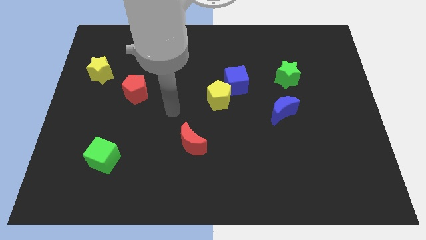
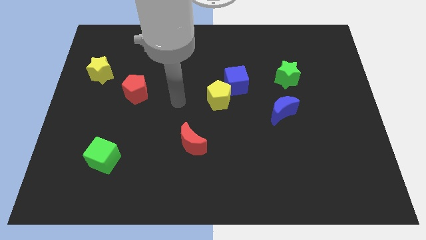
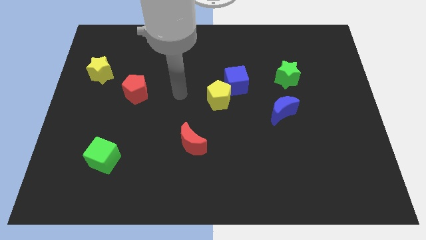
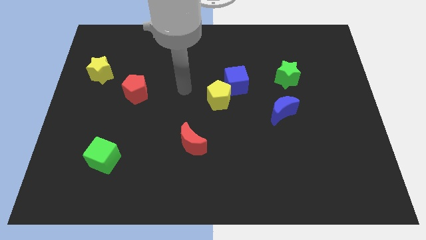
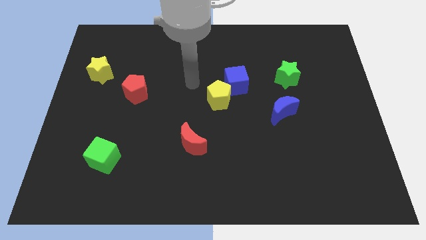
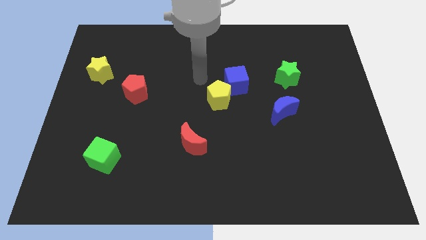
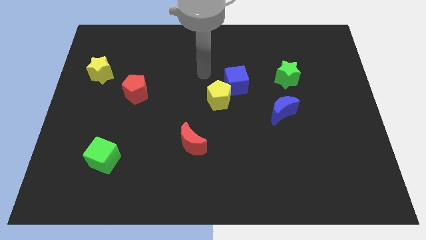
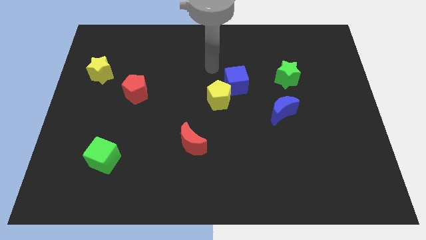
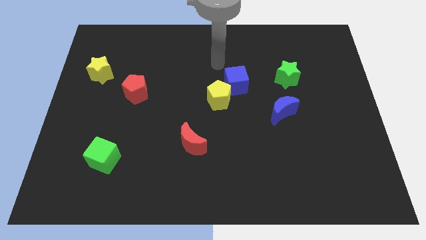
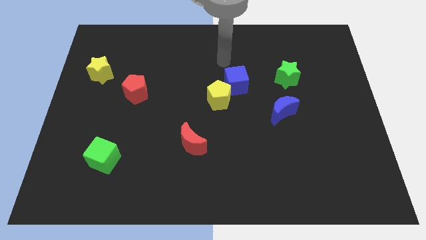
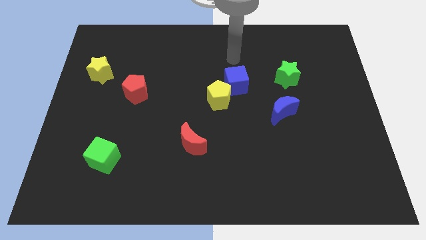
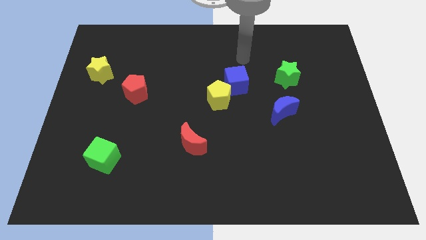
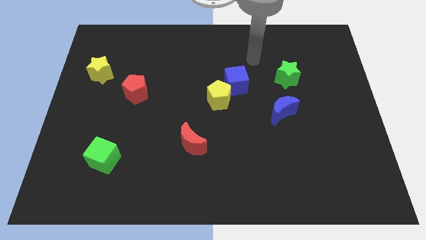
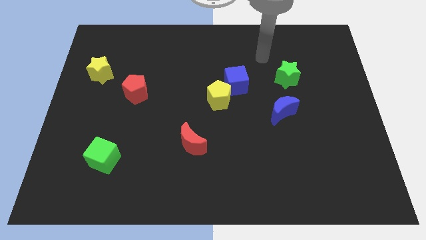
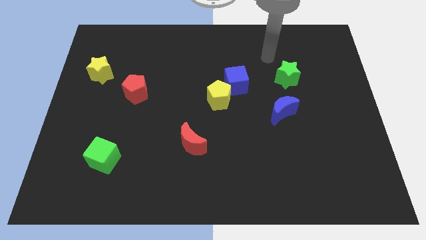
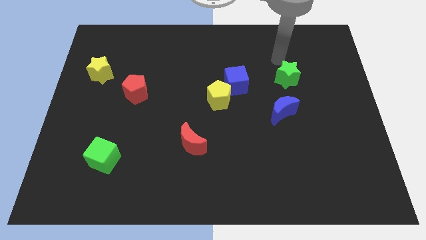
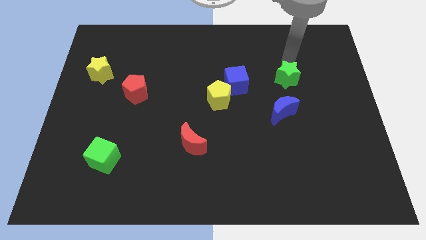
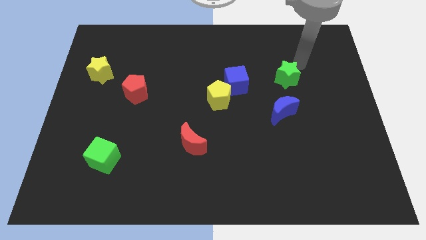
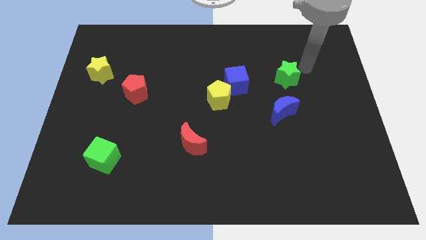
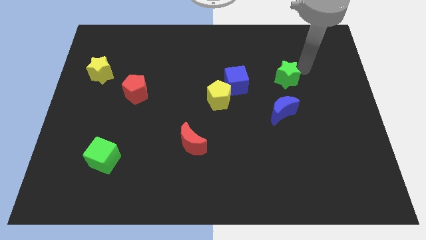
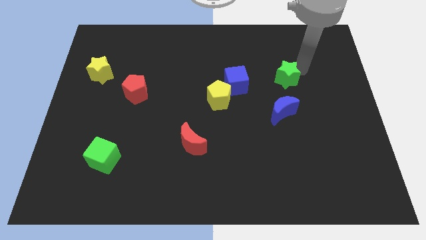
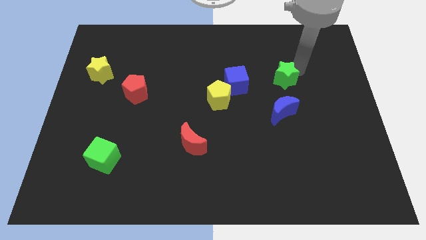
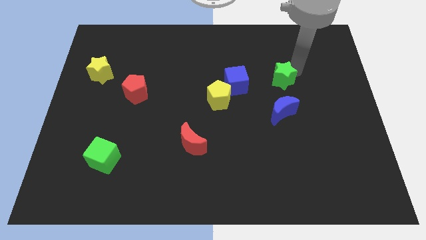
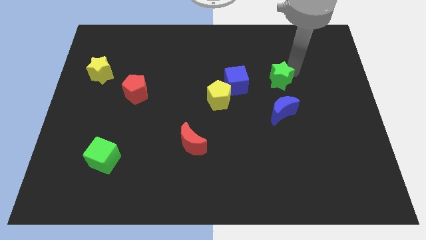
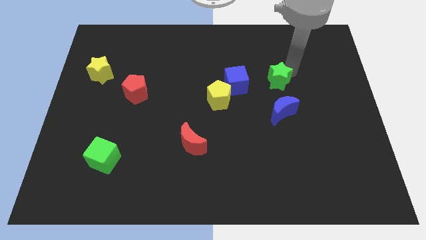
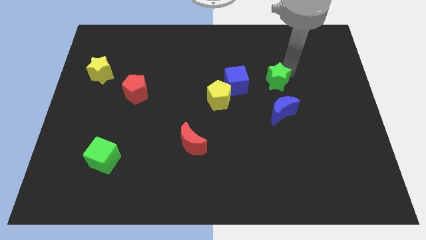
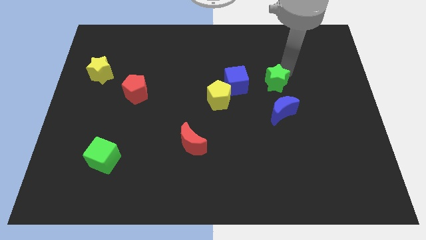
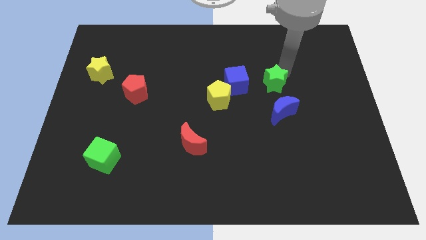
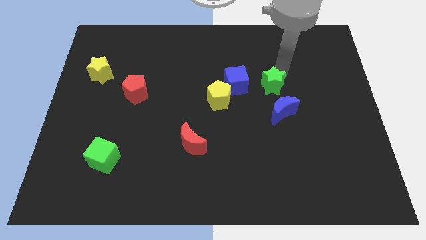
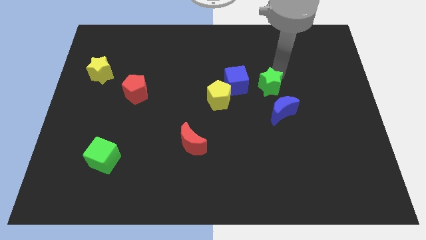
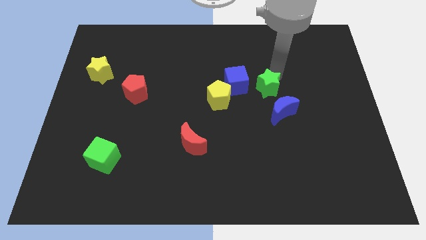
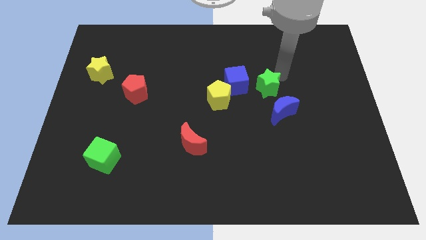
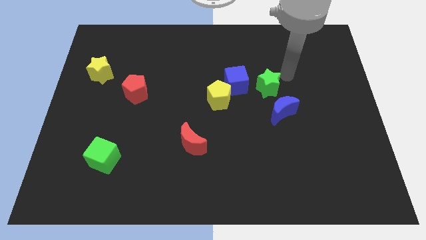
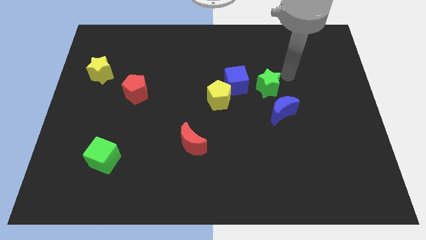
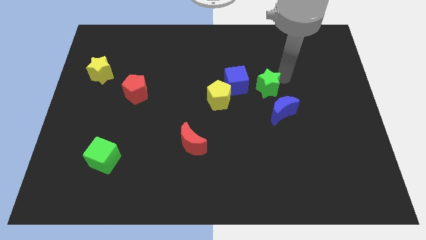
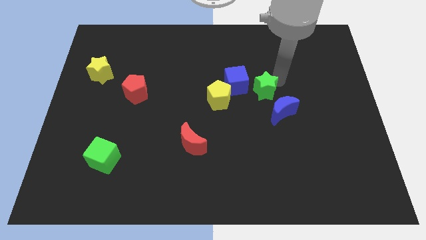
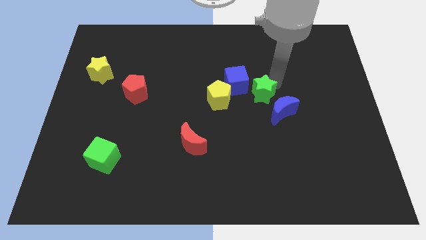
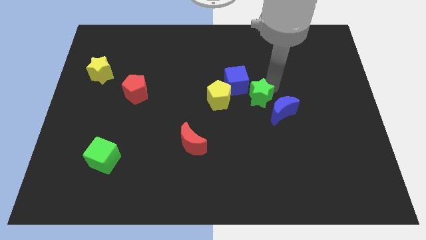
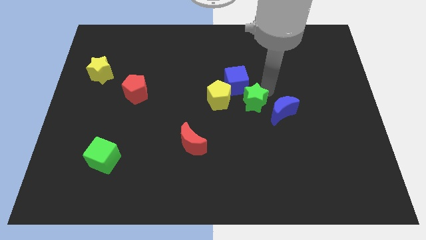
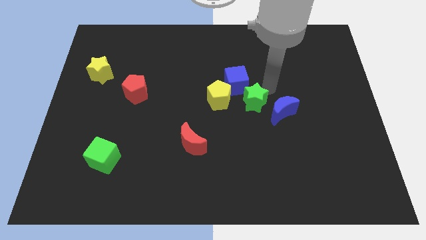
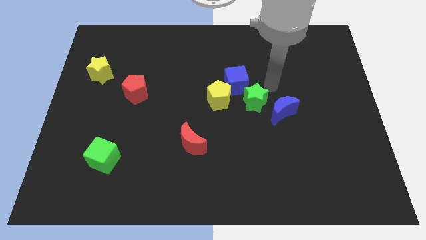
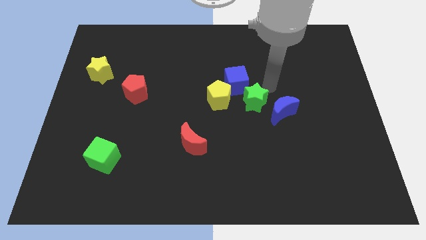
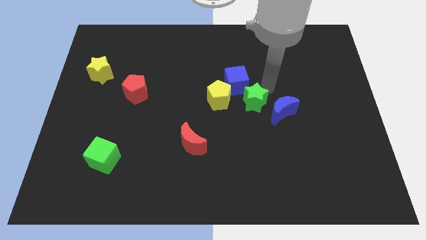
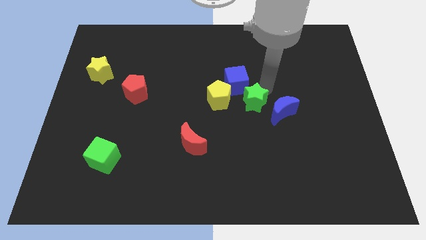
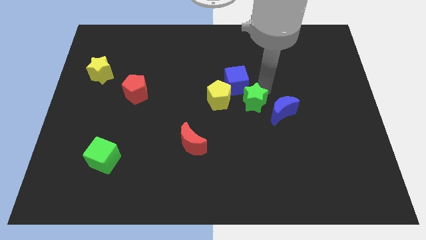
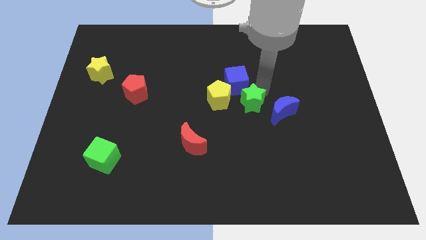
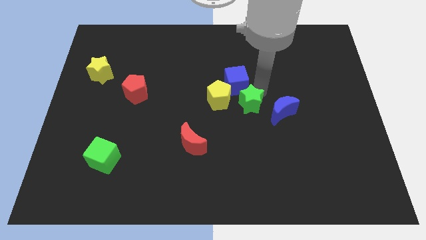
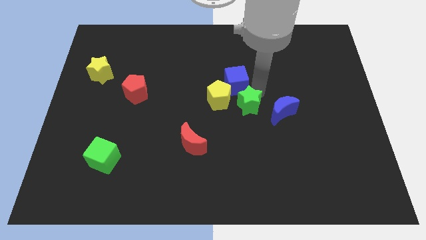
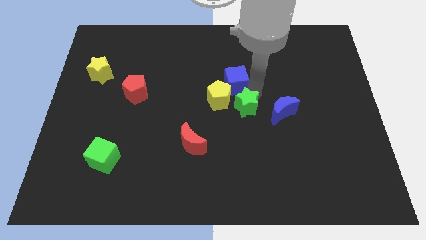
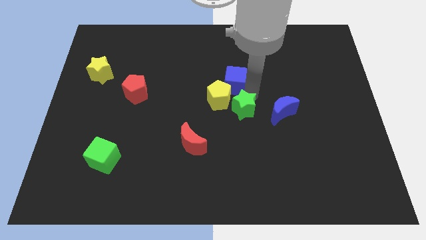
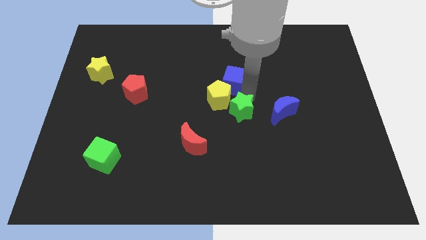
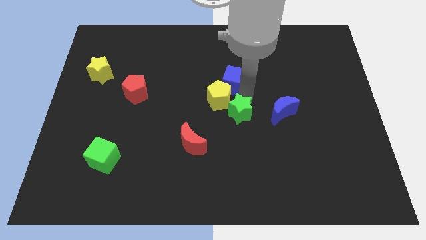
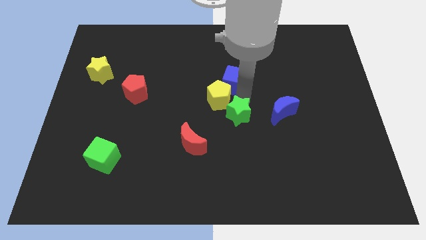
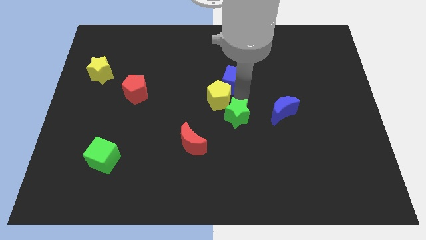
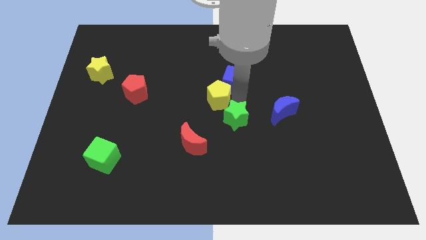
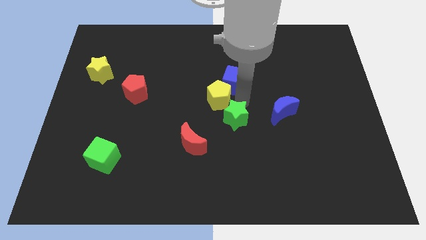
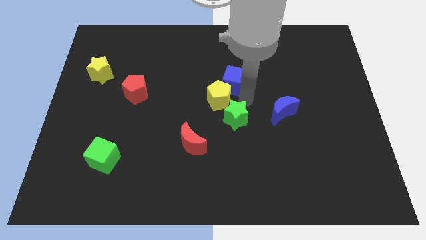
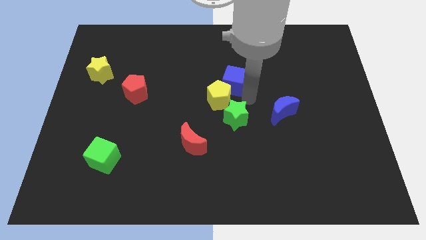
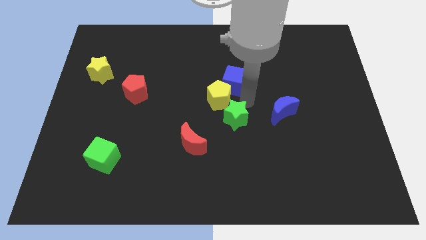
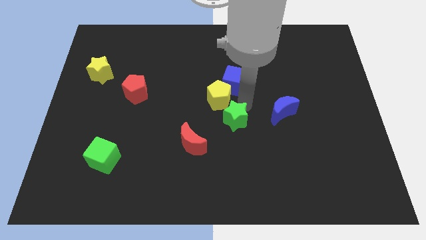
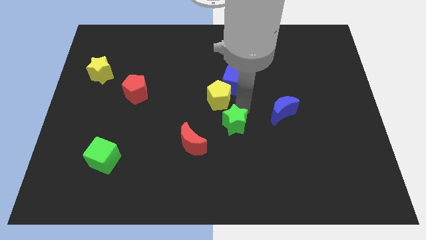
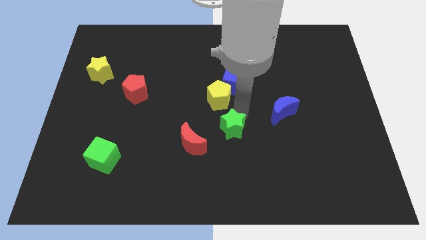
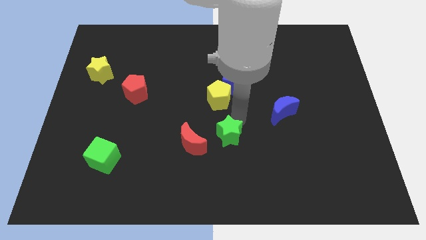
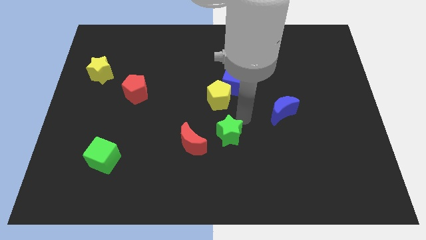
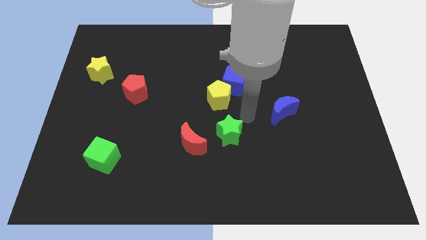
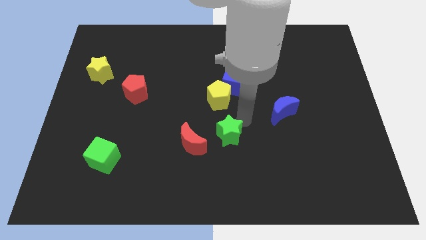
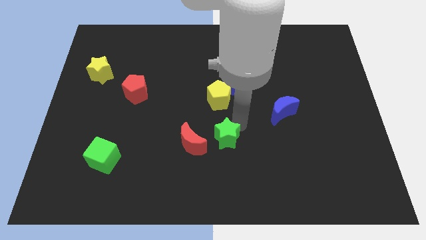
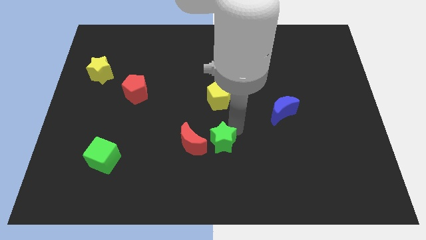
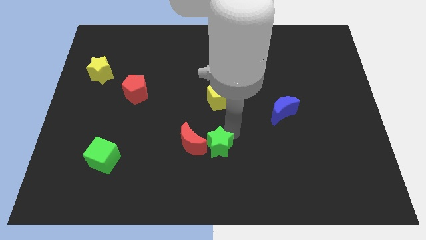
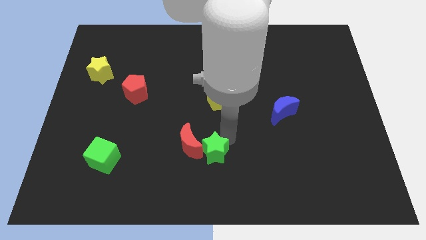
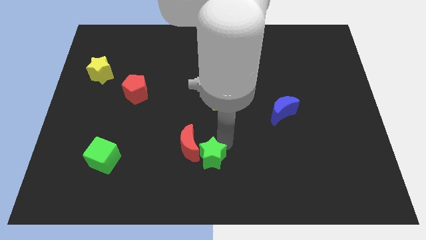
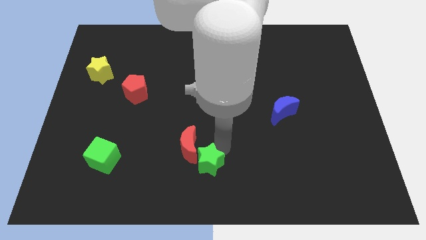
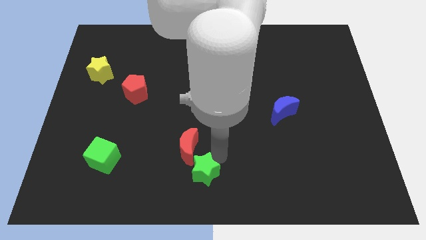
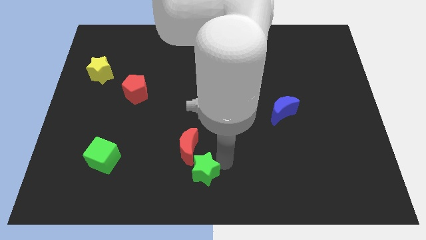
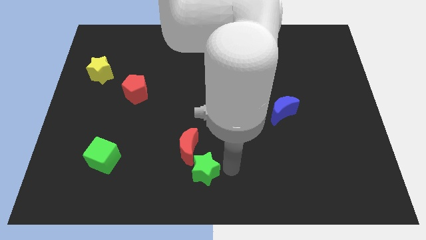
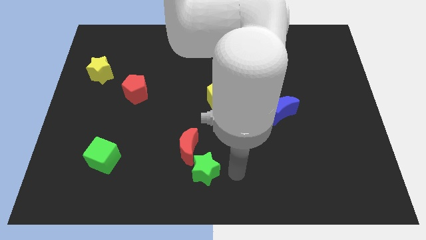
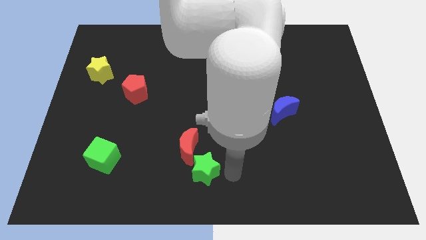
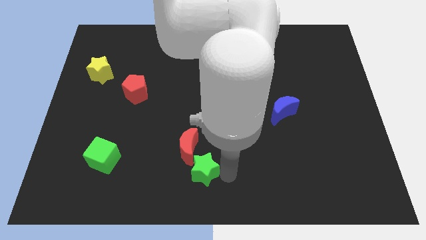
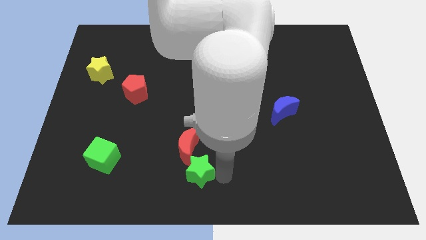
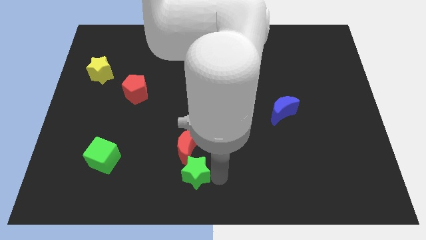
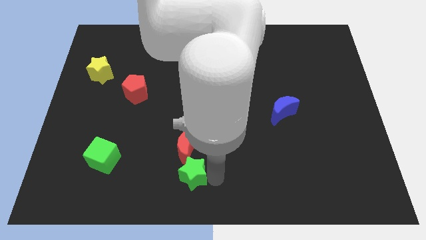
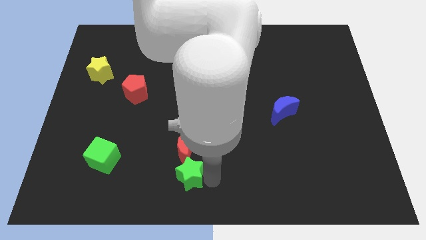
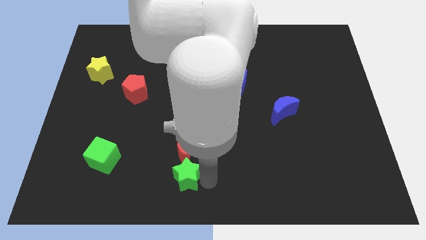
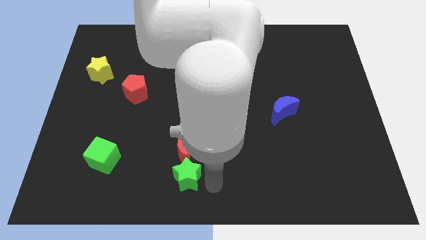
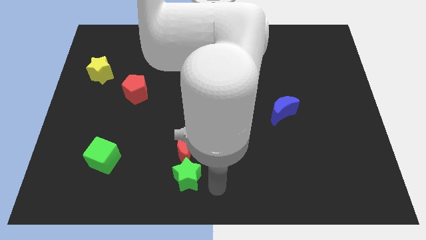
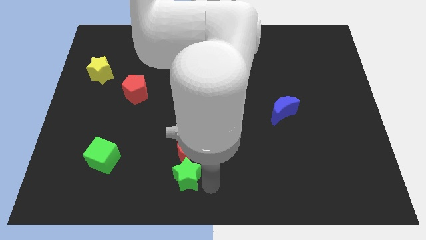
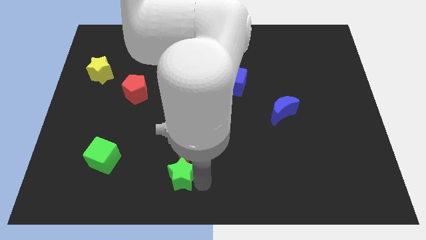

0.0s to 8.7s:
slide the green star to the bottom left of the red moon
